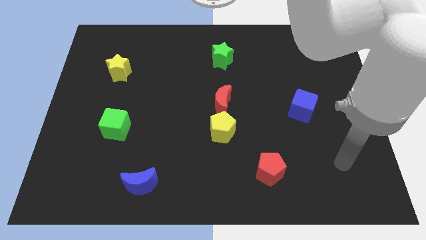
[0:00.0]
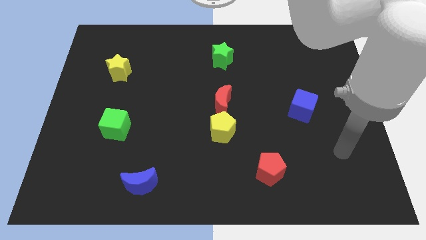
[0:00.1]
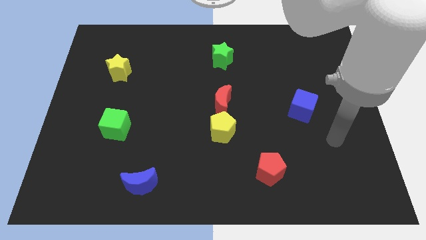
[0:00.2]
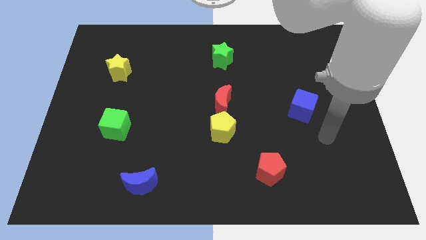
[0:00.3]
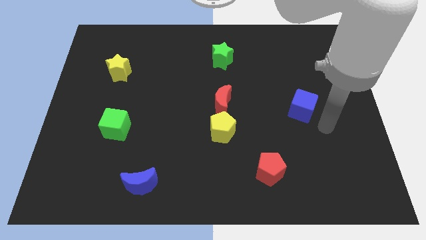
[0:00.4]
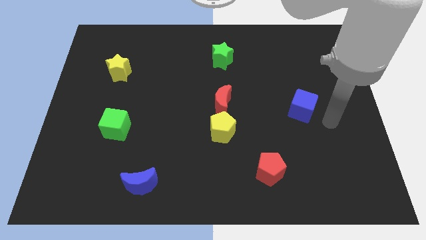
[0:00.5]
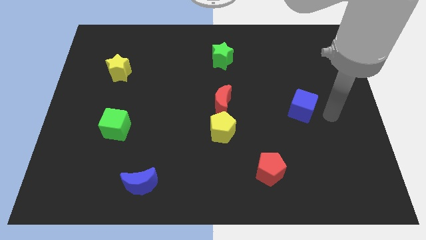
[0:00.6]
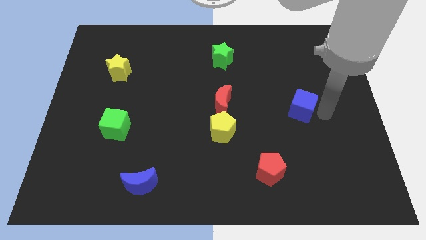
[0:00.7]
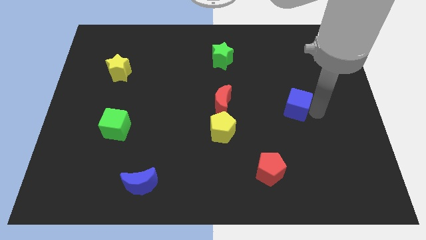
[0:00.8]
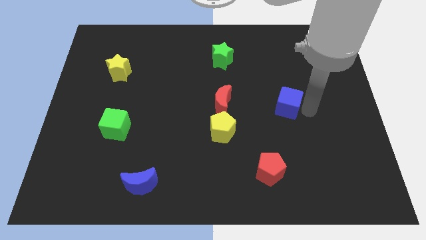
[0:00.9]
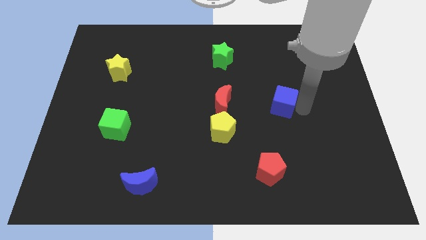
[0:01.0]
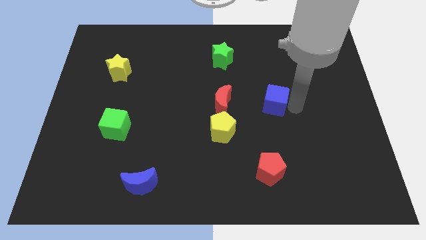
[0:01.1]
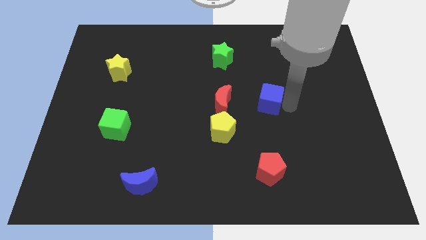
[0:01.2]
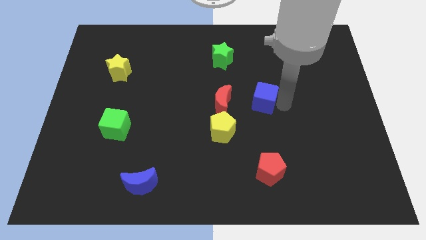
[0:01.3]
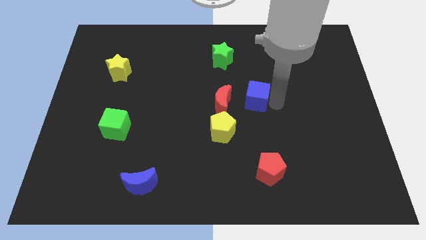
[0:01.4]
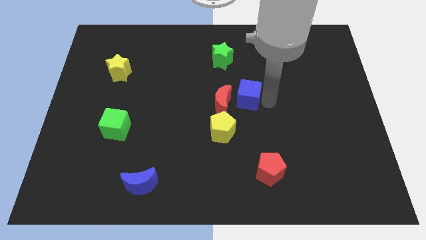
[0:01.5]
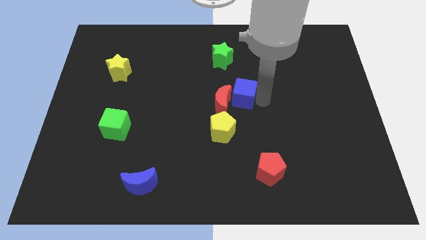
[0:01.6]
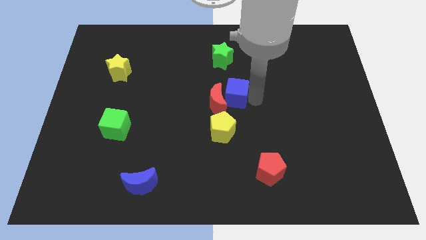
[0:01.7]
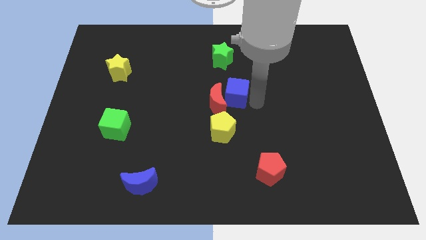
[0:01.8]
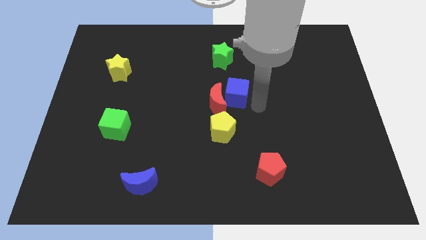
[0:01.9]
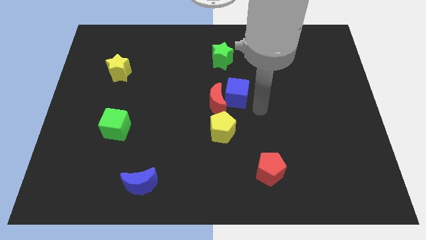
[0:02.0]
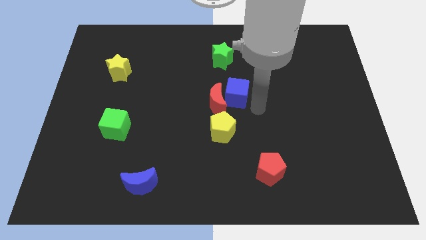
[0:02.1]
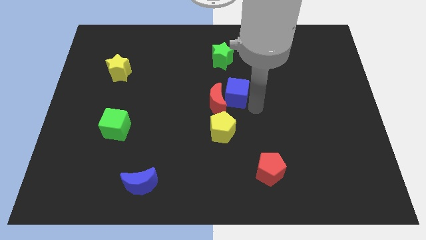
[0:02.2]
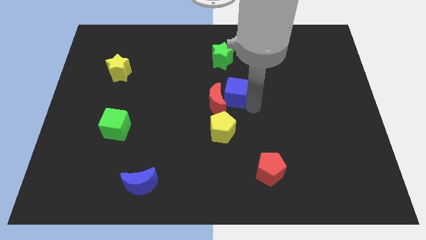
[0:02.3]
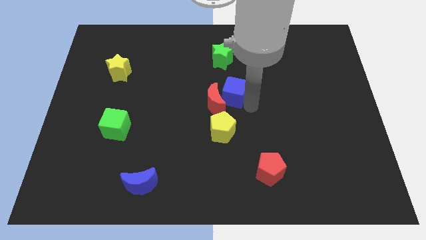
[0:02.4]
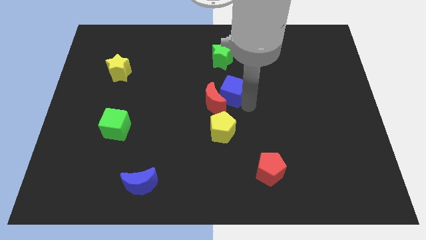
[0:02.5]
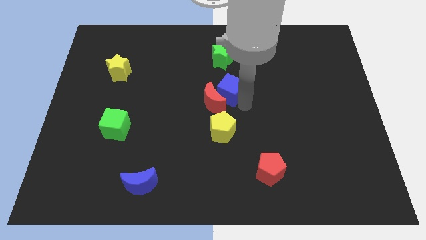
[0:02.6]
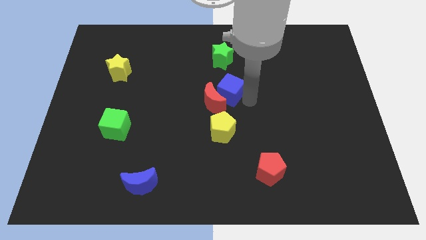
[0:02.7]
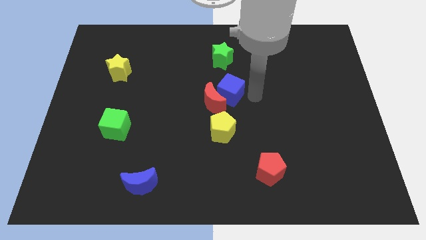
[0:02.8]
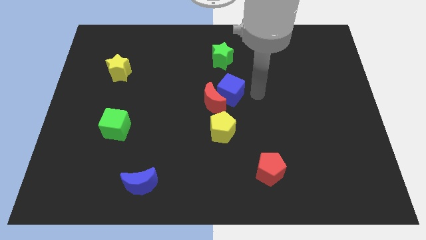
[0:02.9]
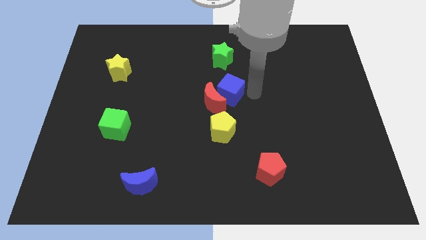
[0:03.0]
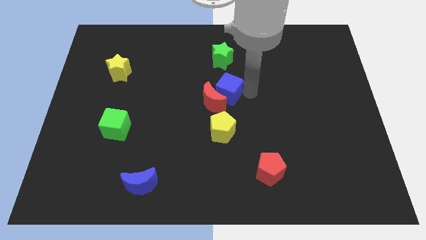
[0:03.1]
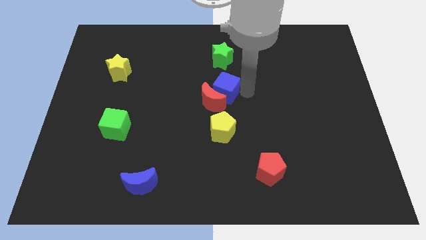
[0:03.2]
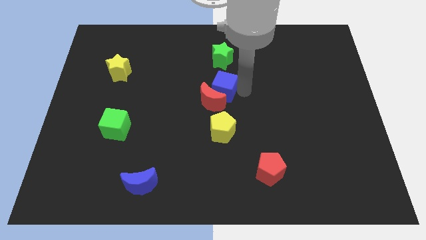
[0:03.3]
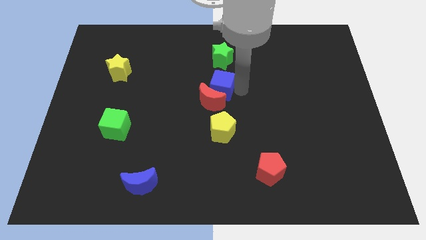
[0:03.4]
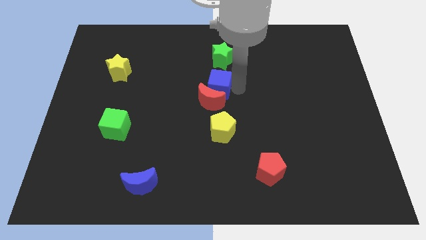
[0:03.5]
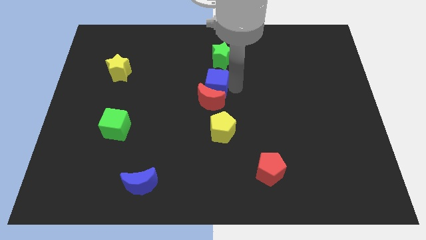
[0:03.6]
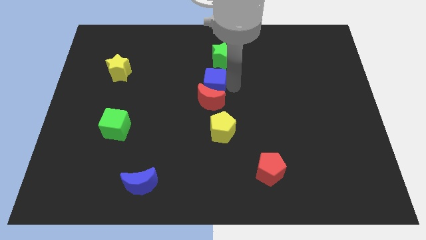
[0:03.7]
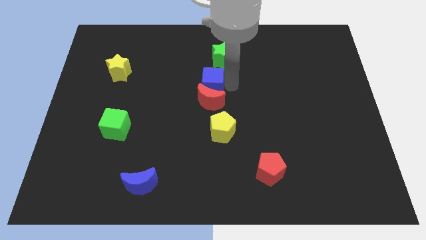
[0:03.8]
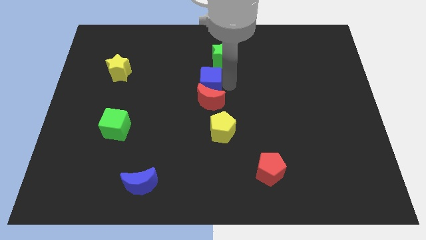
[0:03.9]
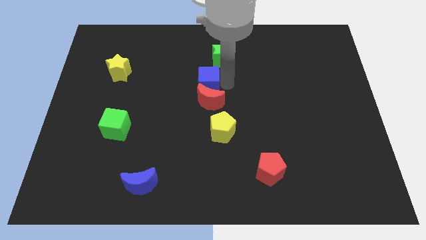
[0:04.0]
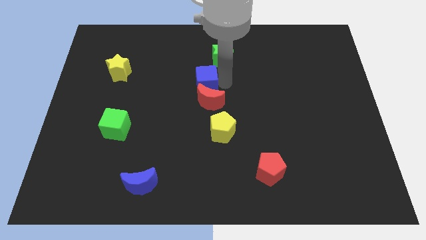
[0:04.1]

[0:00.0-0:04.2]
move the blue cube left

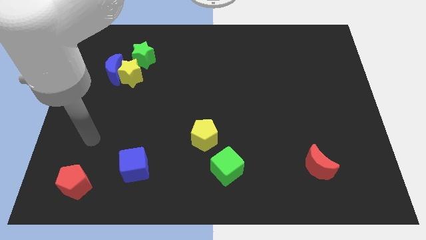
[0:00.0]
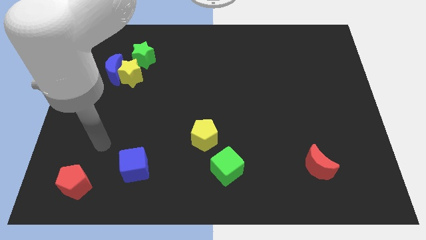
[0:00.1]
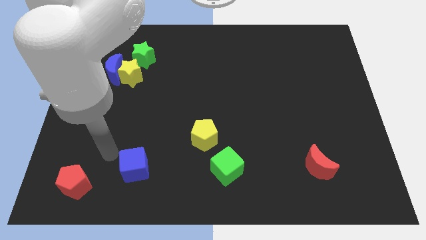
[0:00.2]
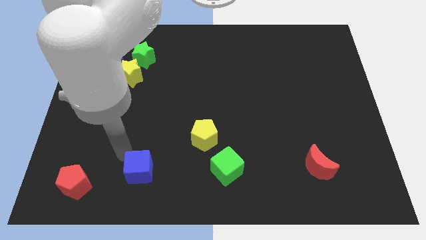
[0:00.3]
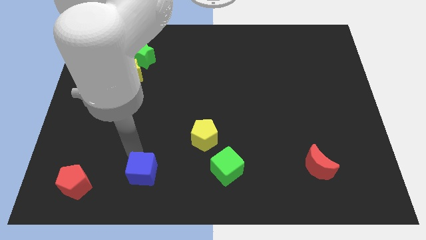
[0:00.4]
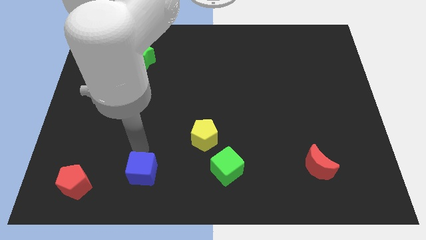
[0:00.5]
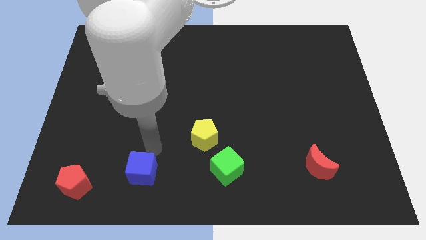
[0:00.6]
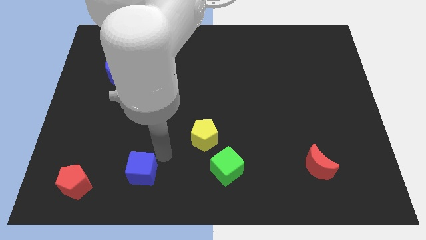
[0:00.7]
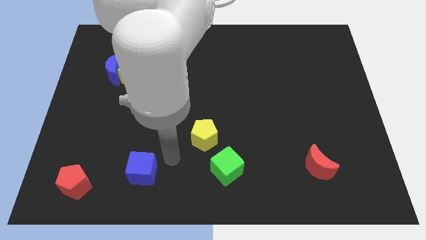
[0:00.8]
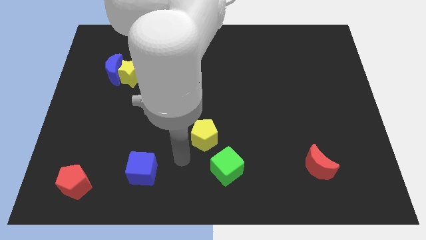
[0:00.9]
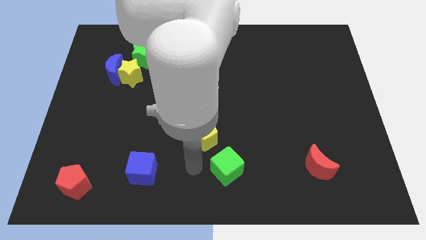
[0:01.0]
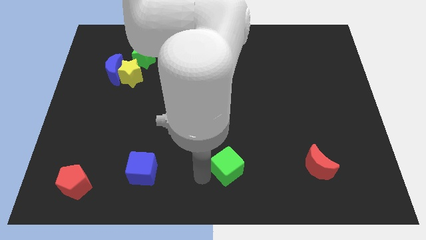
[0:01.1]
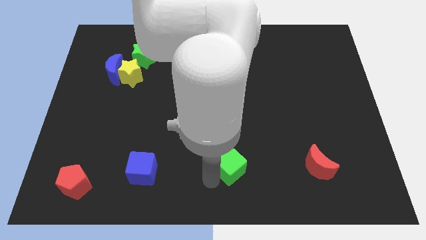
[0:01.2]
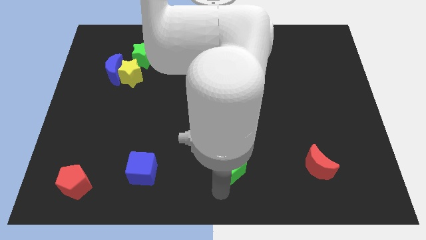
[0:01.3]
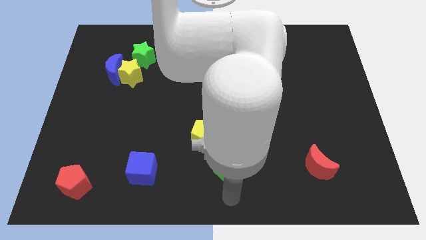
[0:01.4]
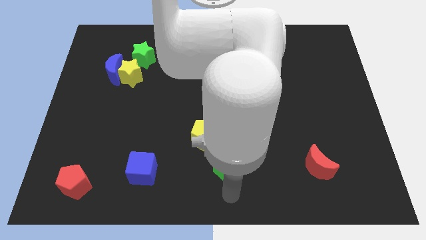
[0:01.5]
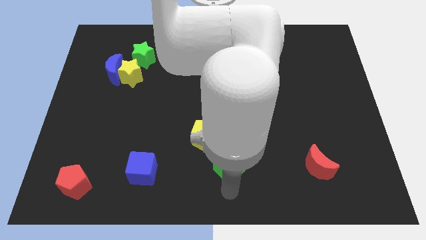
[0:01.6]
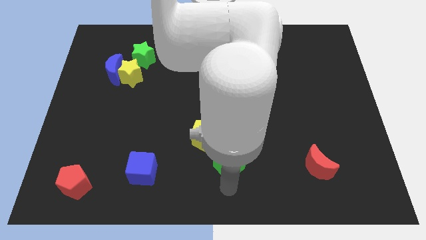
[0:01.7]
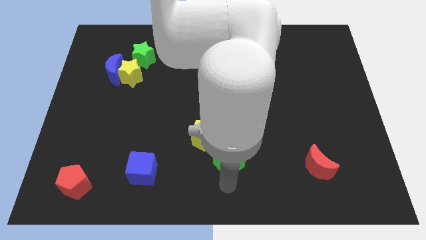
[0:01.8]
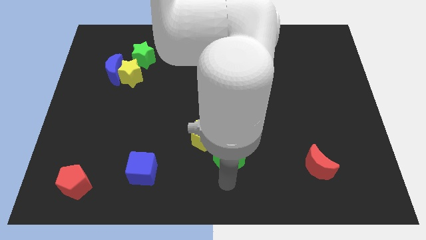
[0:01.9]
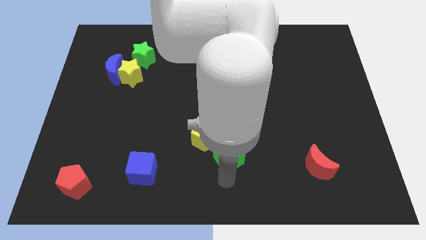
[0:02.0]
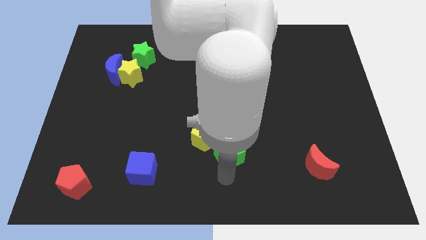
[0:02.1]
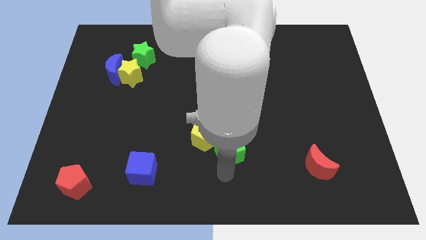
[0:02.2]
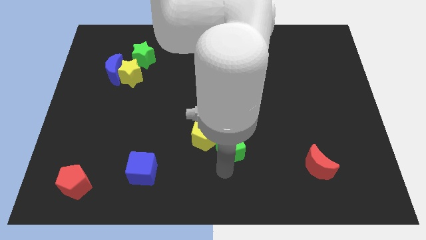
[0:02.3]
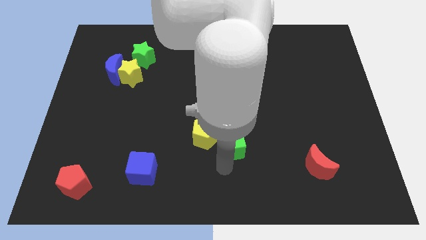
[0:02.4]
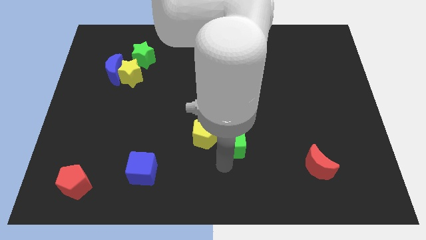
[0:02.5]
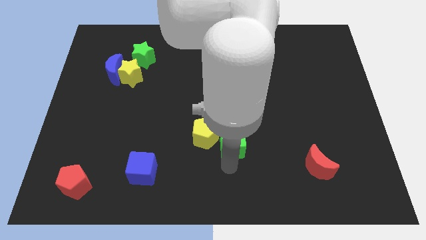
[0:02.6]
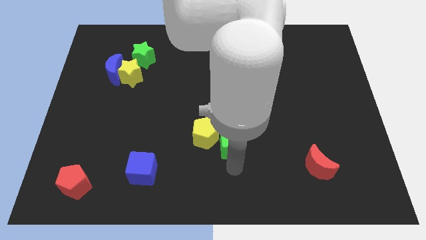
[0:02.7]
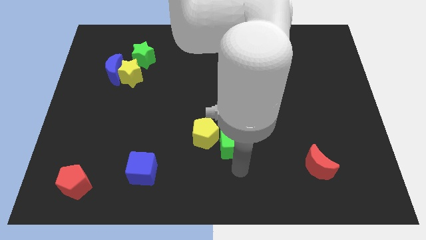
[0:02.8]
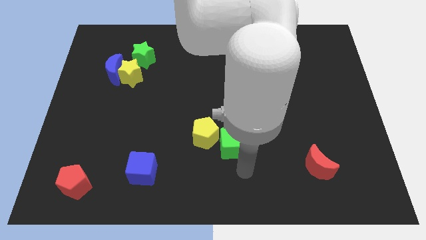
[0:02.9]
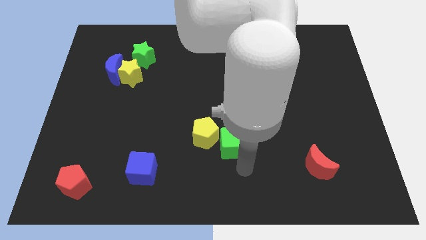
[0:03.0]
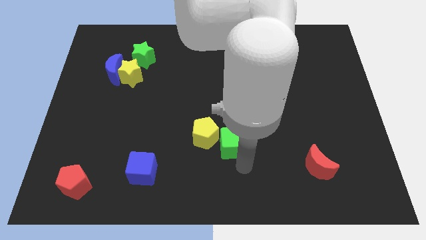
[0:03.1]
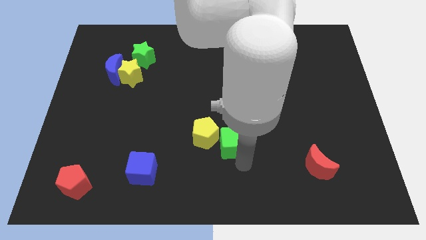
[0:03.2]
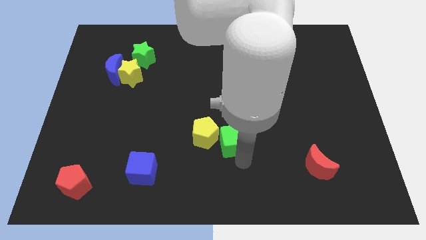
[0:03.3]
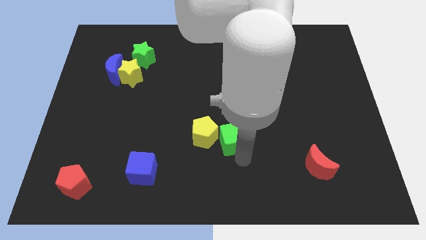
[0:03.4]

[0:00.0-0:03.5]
slightly slide the green cube up

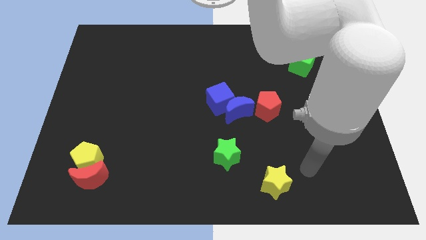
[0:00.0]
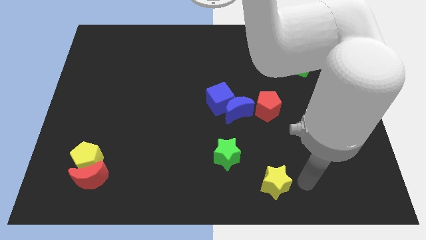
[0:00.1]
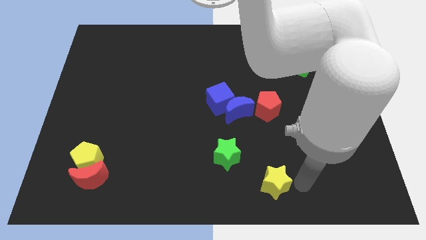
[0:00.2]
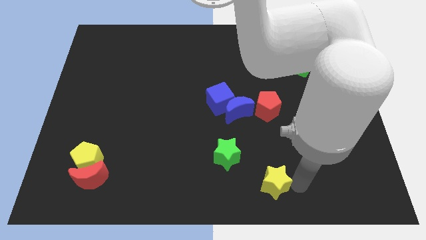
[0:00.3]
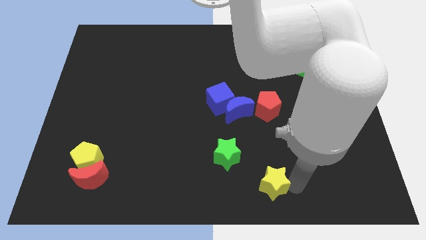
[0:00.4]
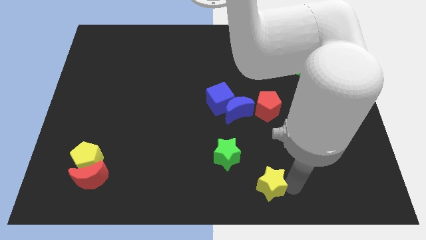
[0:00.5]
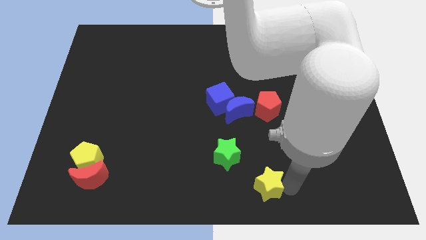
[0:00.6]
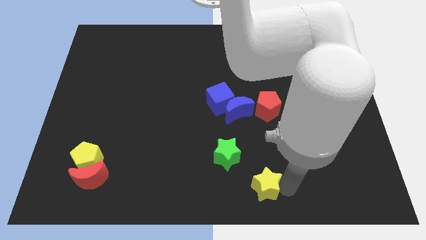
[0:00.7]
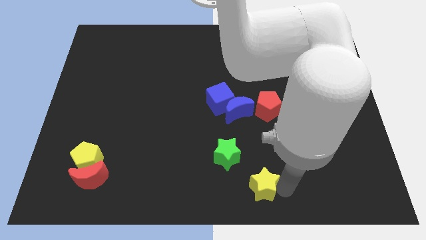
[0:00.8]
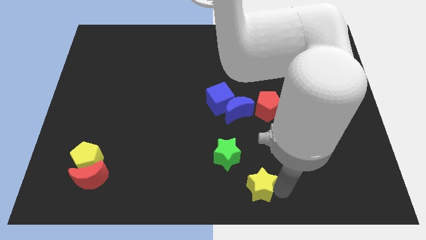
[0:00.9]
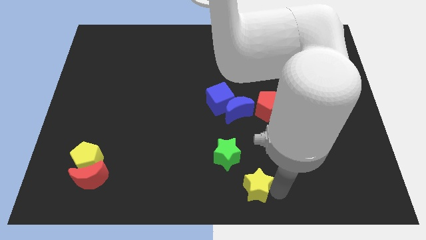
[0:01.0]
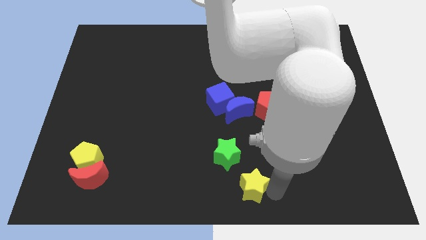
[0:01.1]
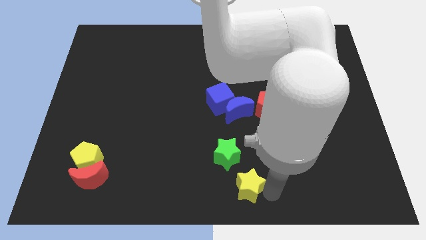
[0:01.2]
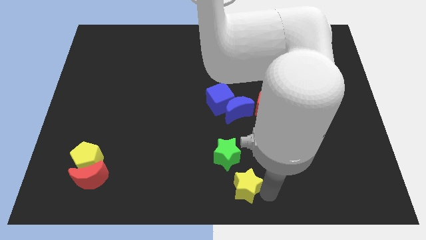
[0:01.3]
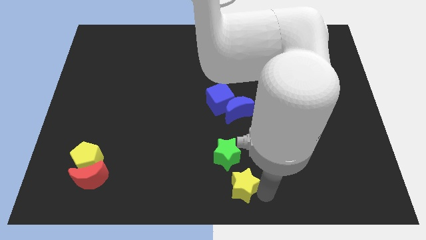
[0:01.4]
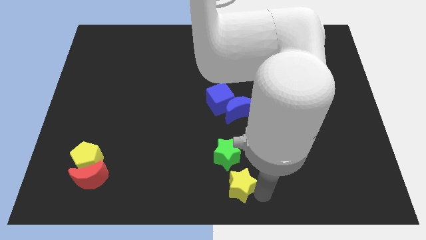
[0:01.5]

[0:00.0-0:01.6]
move the yellow star slightly to the left
